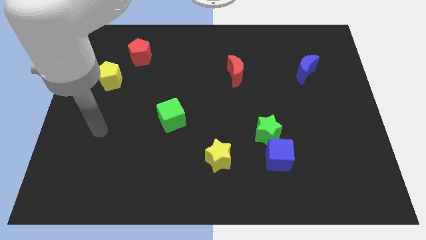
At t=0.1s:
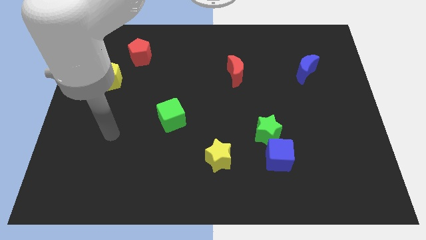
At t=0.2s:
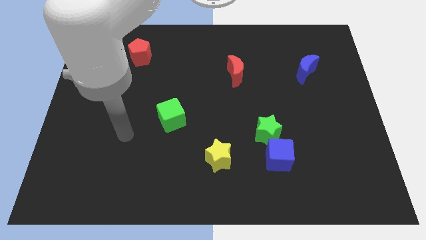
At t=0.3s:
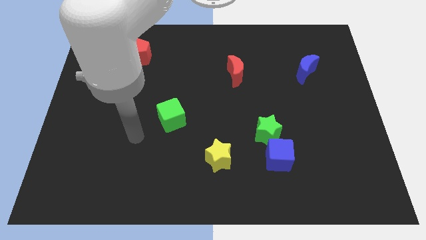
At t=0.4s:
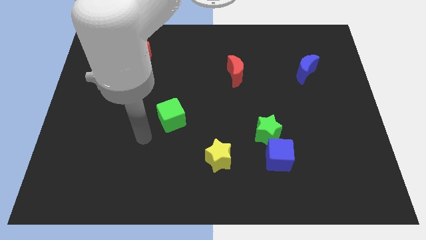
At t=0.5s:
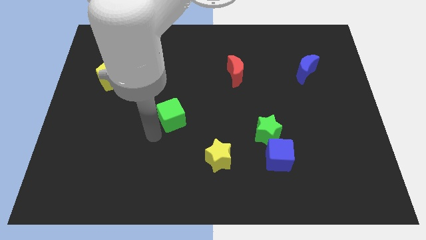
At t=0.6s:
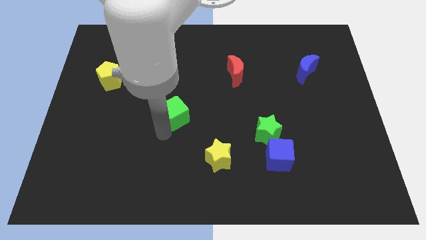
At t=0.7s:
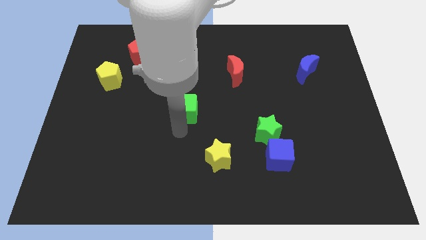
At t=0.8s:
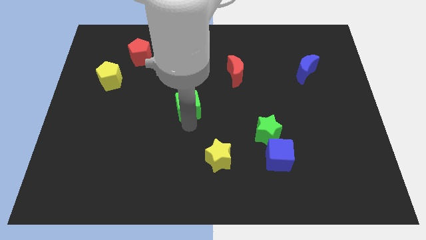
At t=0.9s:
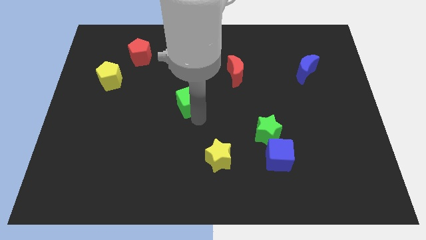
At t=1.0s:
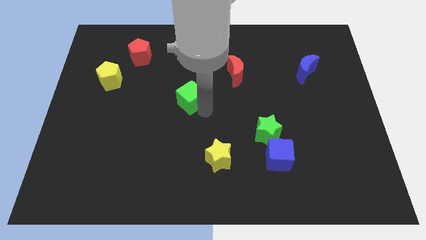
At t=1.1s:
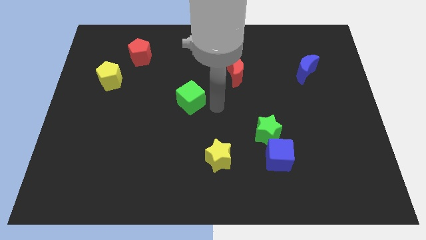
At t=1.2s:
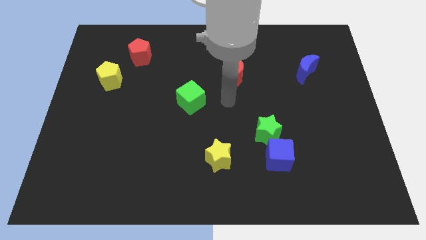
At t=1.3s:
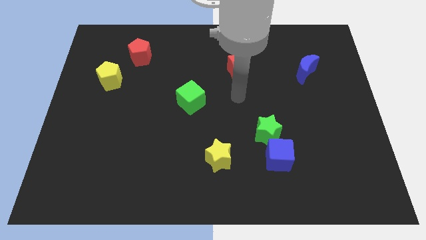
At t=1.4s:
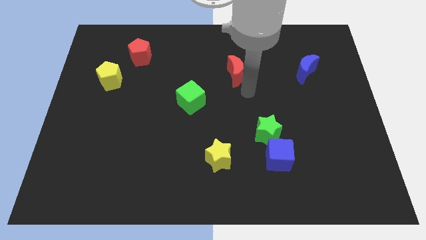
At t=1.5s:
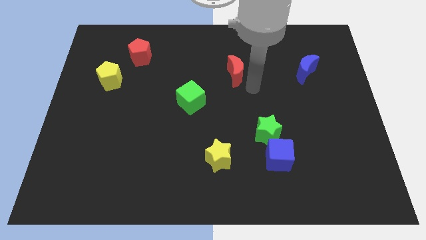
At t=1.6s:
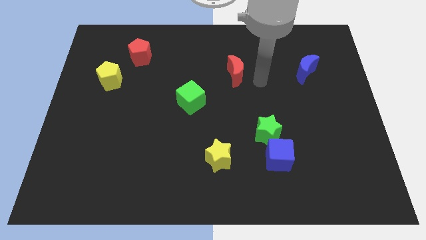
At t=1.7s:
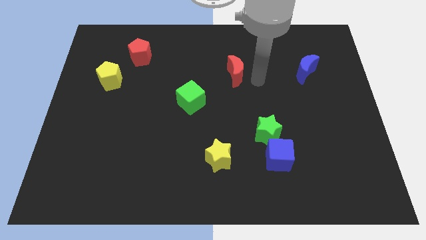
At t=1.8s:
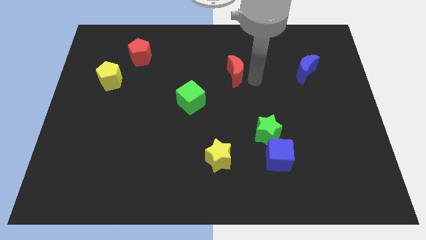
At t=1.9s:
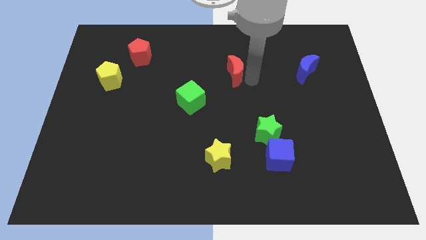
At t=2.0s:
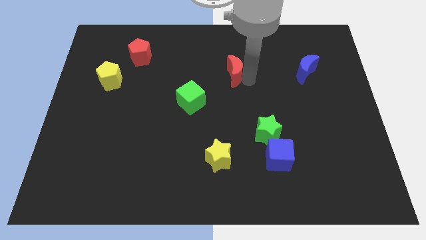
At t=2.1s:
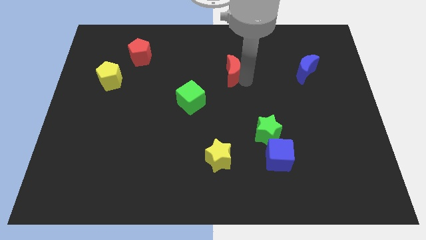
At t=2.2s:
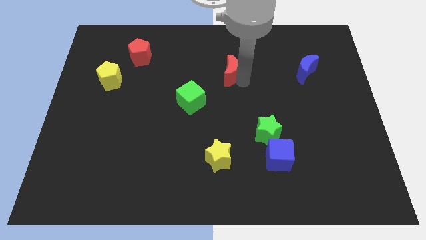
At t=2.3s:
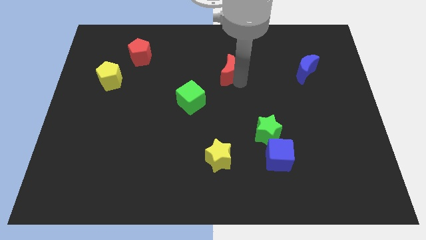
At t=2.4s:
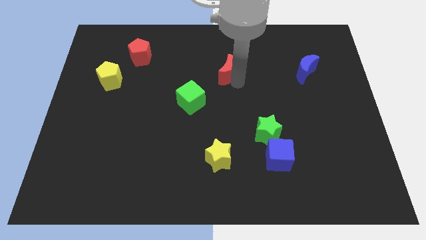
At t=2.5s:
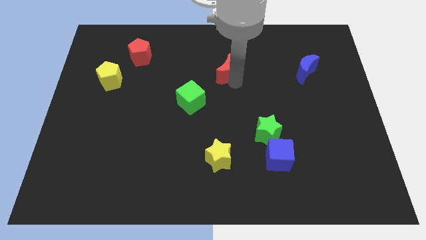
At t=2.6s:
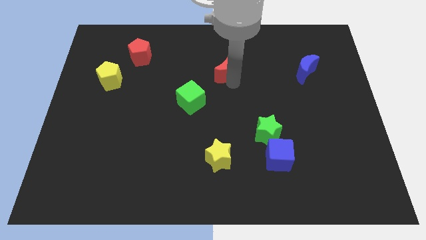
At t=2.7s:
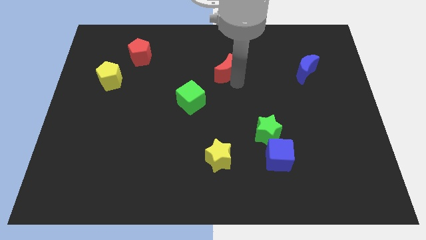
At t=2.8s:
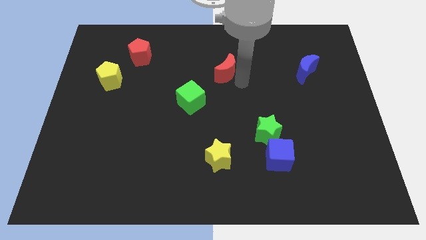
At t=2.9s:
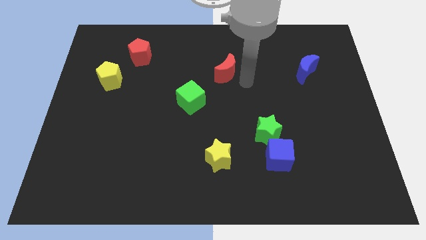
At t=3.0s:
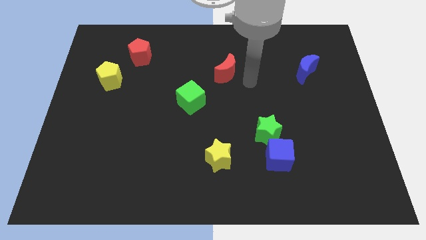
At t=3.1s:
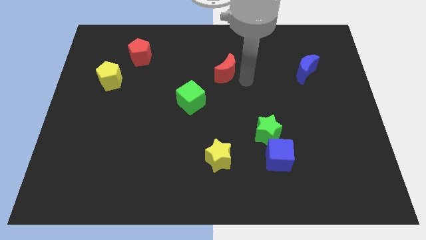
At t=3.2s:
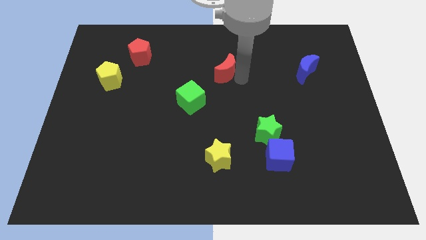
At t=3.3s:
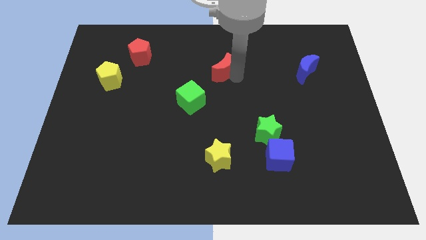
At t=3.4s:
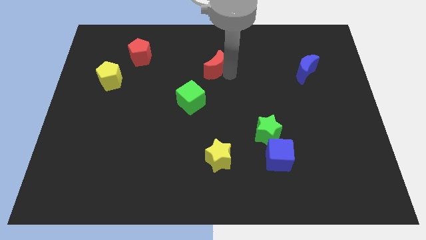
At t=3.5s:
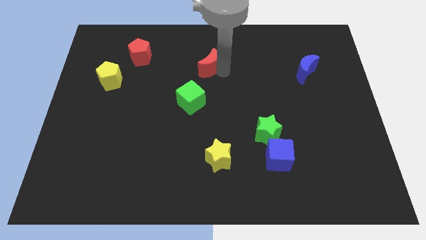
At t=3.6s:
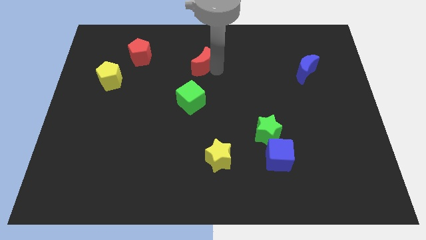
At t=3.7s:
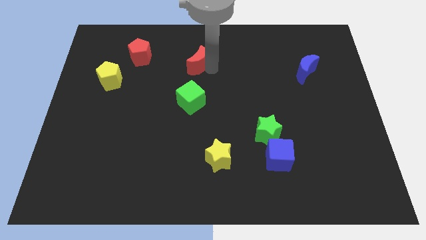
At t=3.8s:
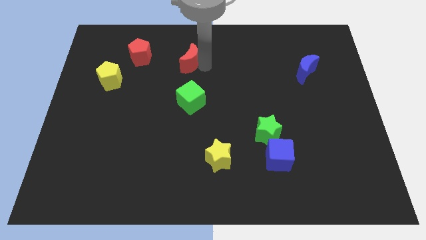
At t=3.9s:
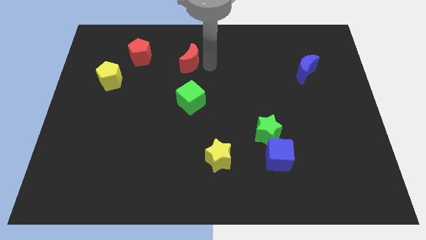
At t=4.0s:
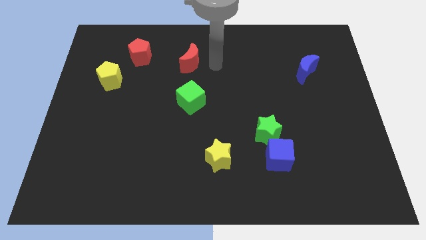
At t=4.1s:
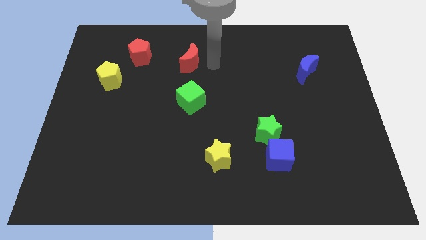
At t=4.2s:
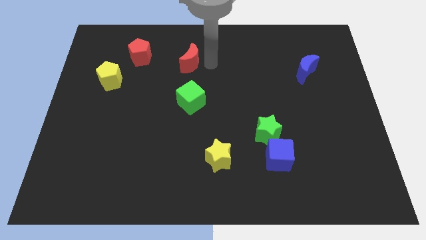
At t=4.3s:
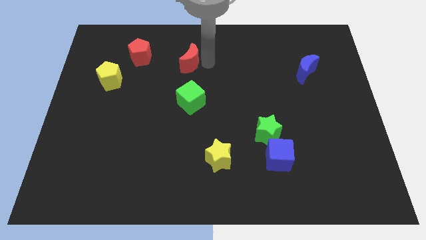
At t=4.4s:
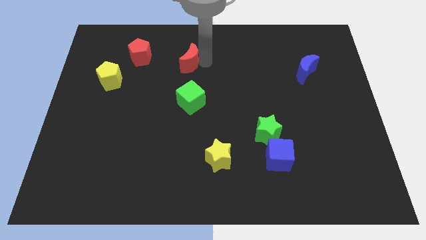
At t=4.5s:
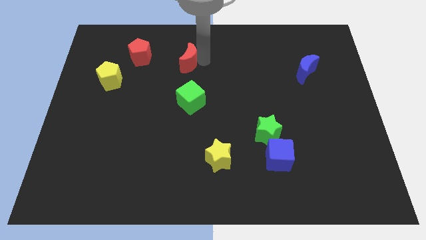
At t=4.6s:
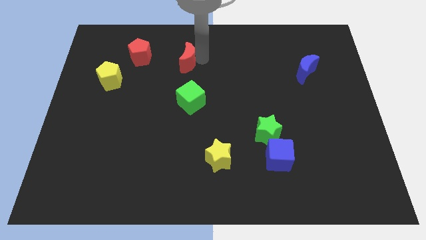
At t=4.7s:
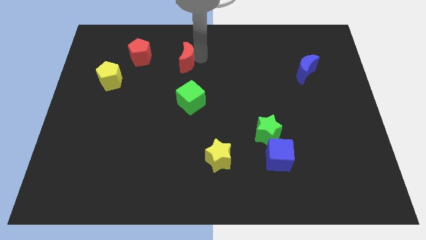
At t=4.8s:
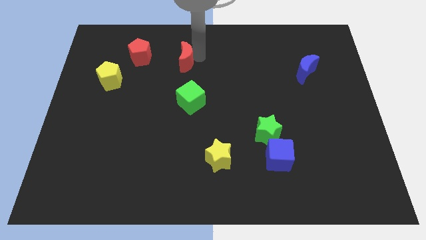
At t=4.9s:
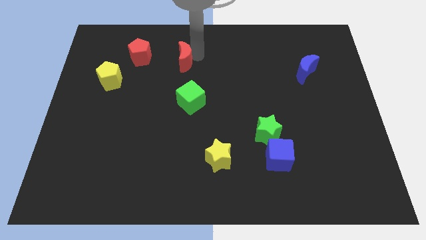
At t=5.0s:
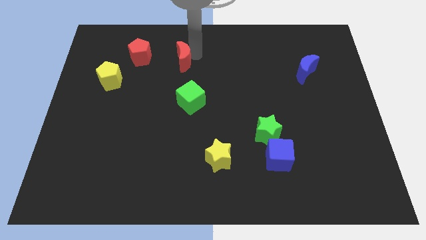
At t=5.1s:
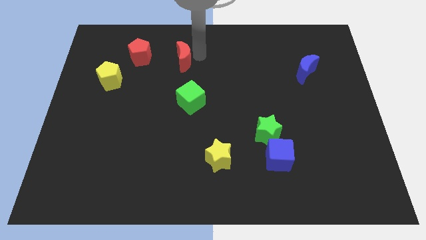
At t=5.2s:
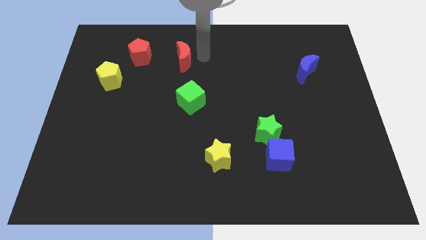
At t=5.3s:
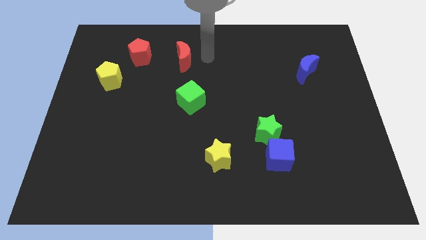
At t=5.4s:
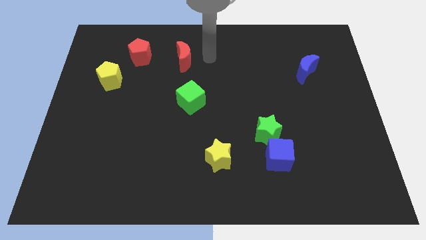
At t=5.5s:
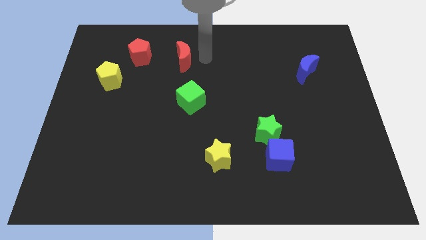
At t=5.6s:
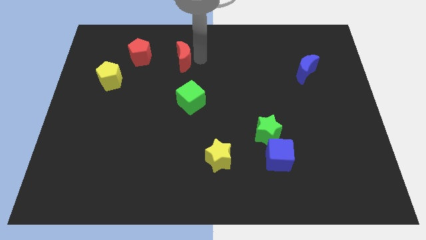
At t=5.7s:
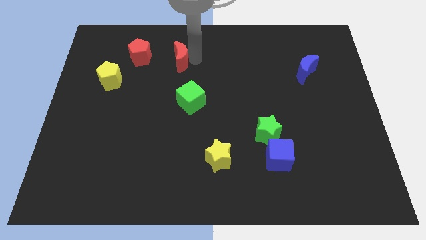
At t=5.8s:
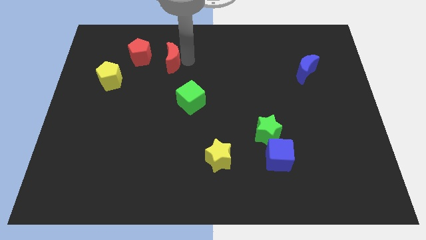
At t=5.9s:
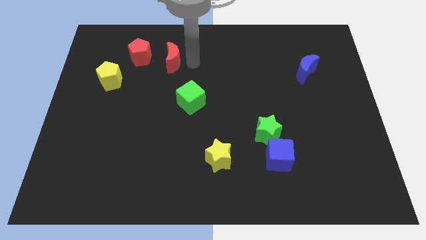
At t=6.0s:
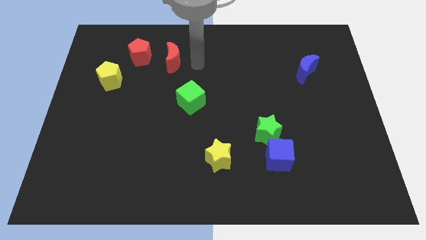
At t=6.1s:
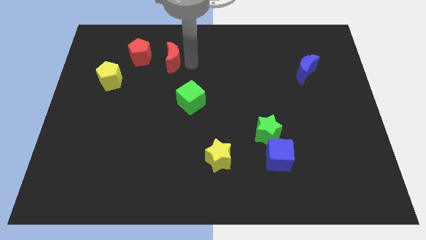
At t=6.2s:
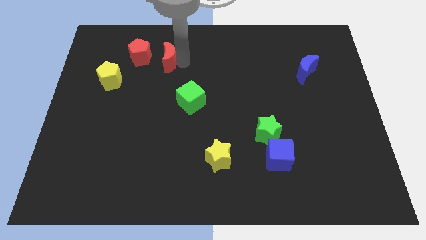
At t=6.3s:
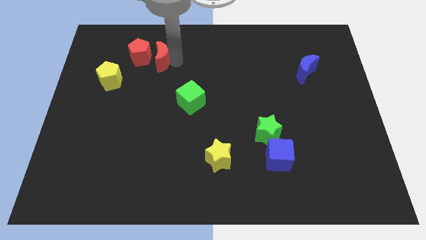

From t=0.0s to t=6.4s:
move the red moon towards the red pentagon

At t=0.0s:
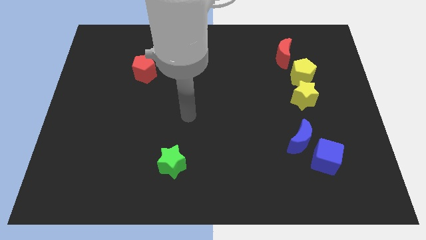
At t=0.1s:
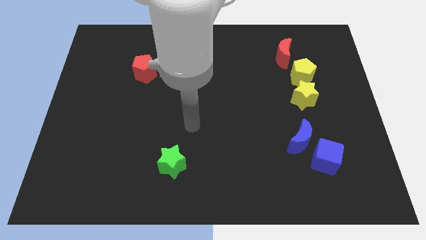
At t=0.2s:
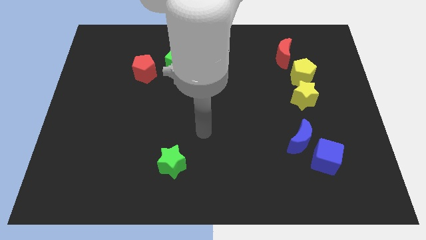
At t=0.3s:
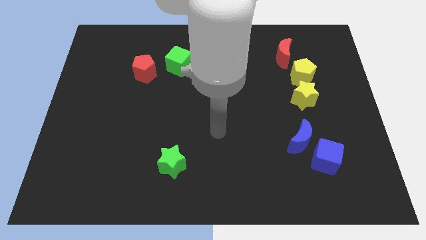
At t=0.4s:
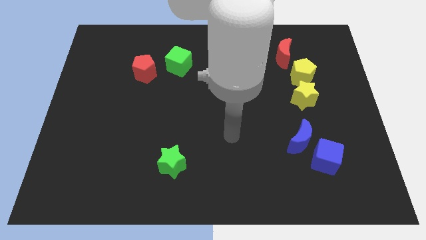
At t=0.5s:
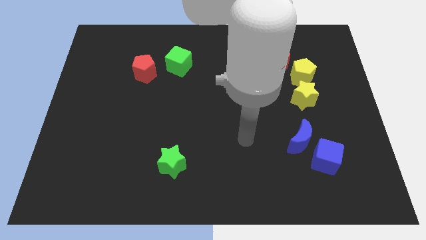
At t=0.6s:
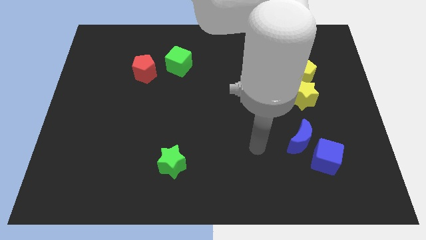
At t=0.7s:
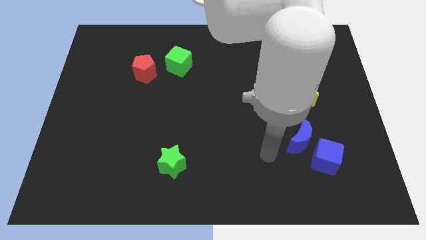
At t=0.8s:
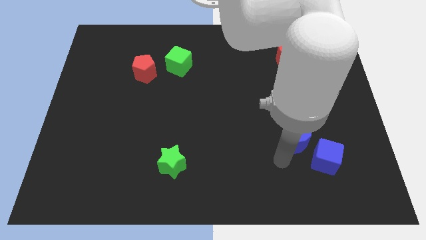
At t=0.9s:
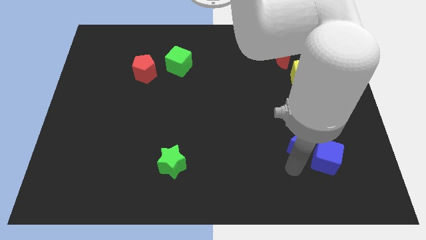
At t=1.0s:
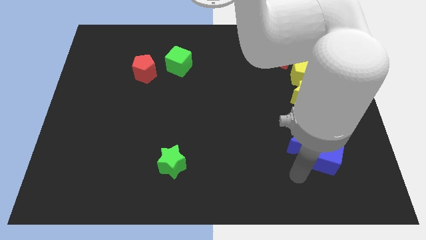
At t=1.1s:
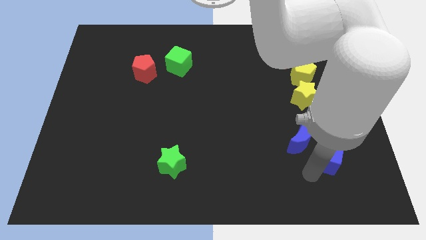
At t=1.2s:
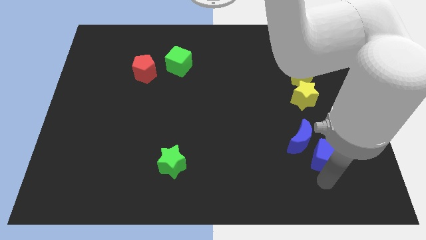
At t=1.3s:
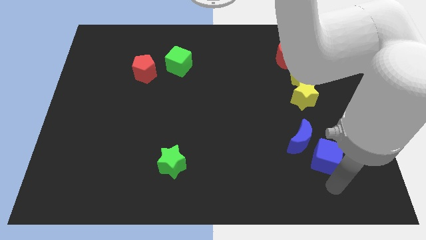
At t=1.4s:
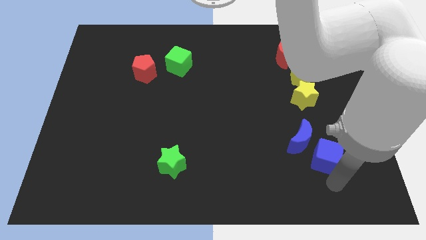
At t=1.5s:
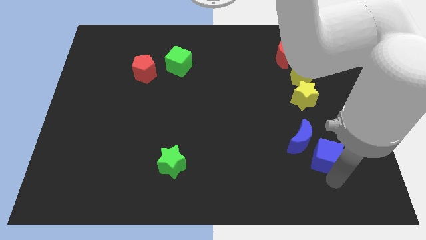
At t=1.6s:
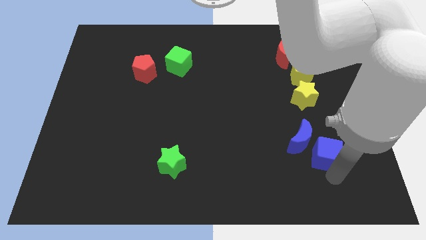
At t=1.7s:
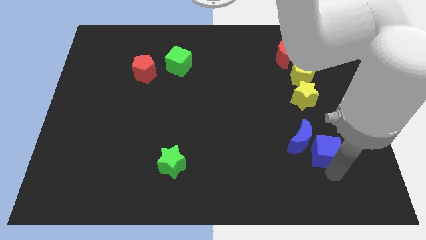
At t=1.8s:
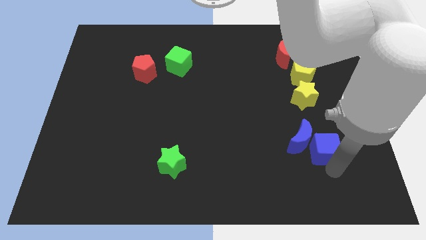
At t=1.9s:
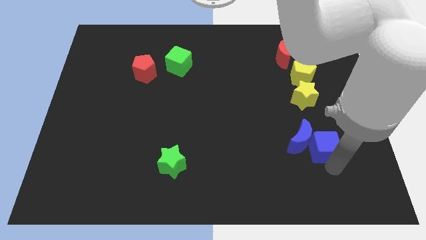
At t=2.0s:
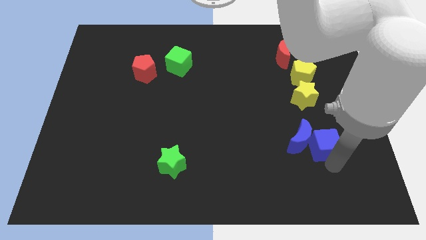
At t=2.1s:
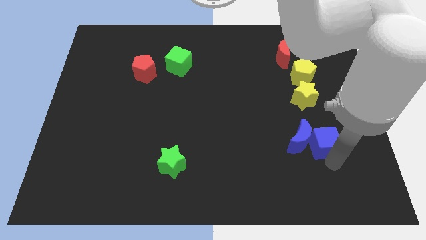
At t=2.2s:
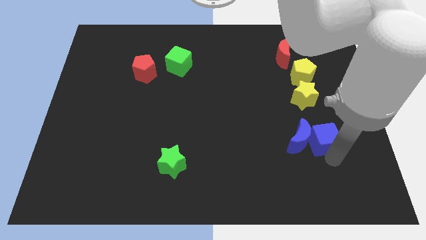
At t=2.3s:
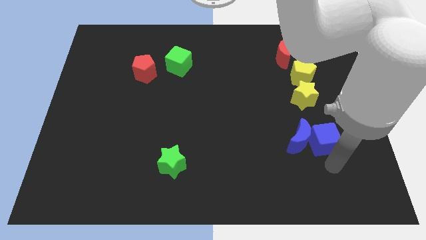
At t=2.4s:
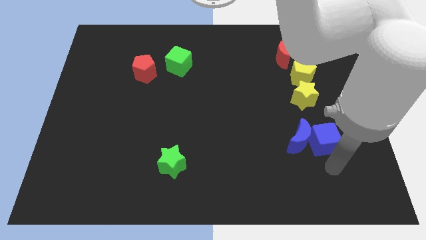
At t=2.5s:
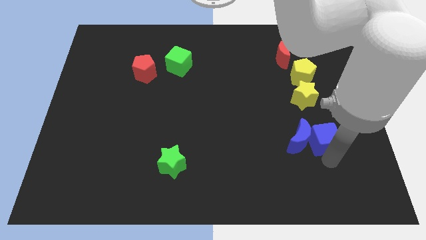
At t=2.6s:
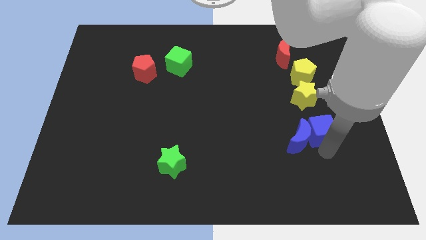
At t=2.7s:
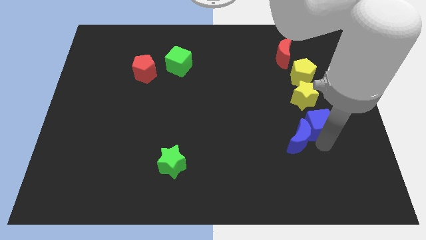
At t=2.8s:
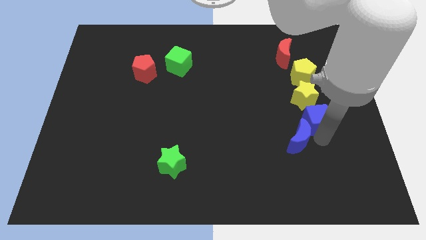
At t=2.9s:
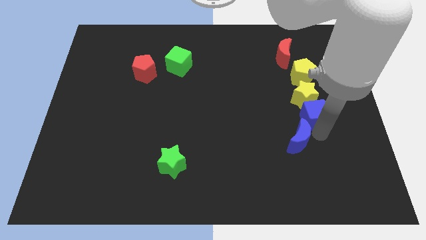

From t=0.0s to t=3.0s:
put the blue cube to the yellow star
